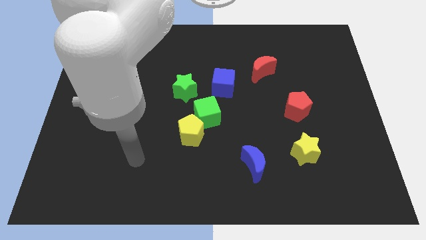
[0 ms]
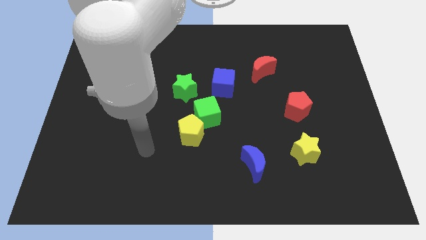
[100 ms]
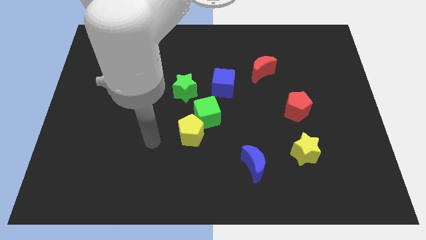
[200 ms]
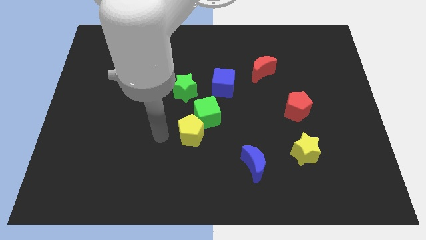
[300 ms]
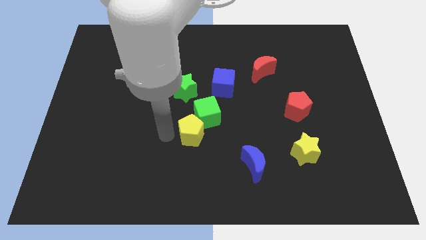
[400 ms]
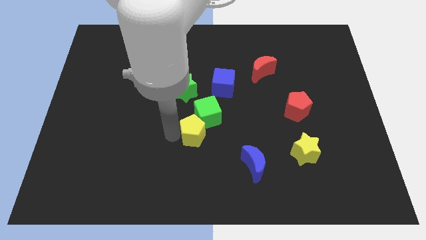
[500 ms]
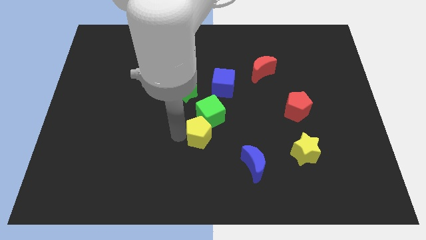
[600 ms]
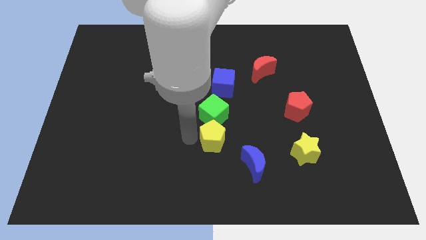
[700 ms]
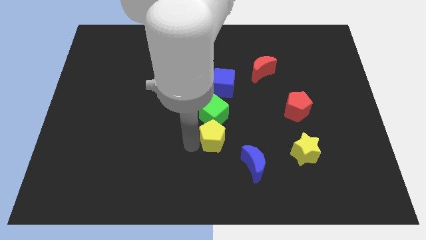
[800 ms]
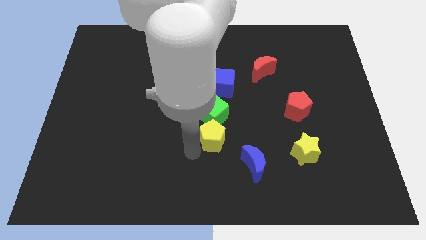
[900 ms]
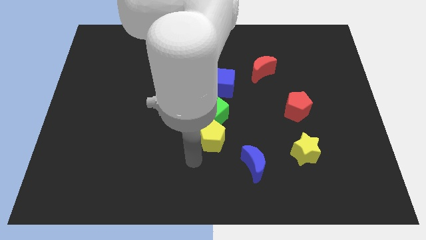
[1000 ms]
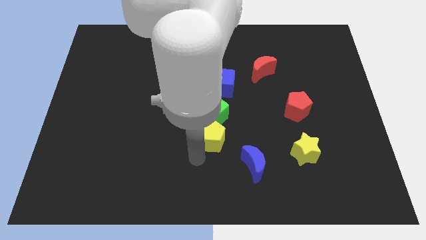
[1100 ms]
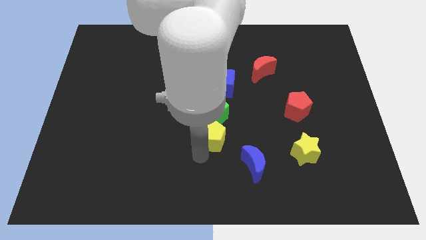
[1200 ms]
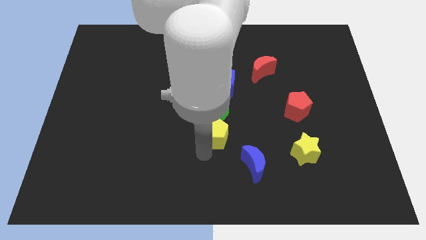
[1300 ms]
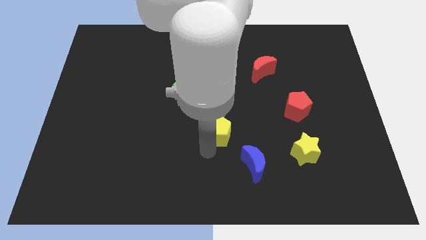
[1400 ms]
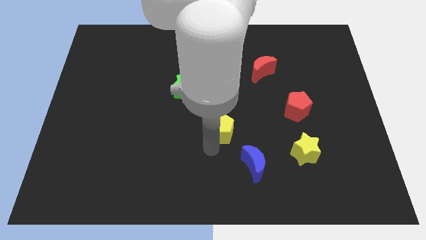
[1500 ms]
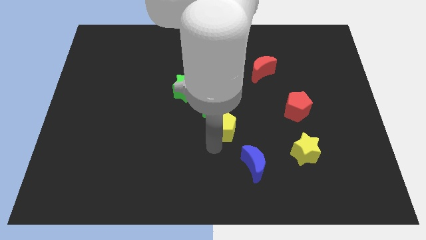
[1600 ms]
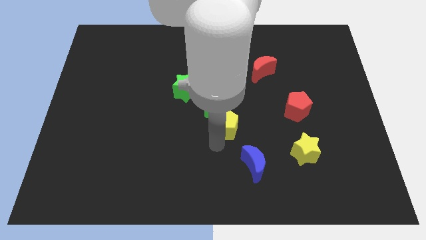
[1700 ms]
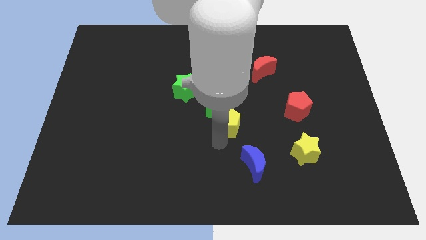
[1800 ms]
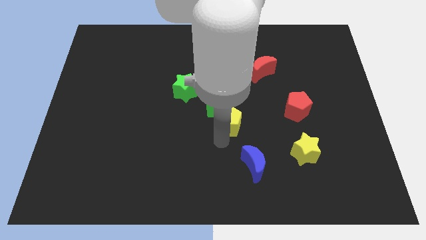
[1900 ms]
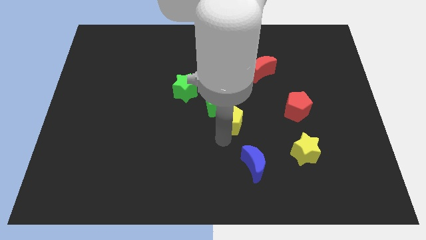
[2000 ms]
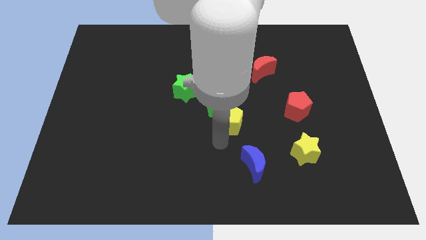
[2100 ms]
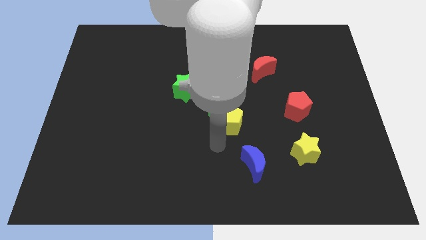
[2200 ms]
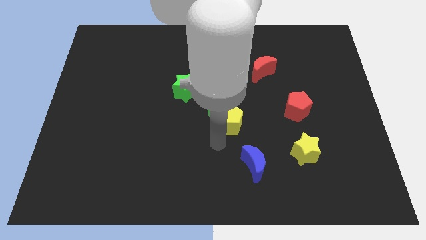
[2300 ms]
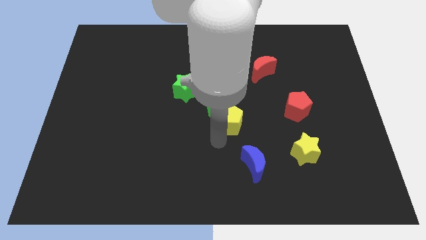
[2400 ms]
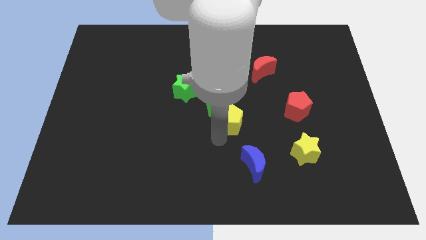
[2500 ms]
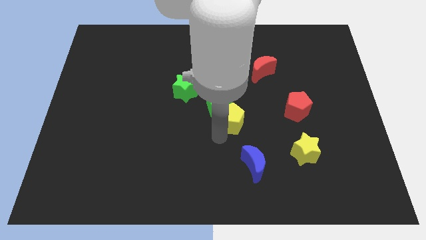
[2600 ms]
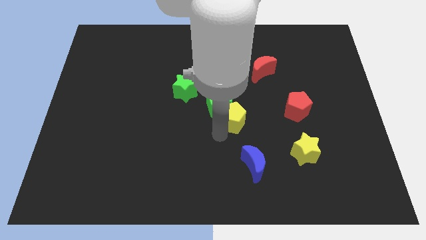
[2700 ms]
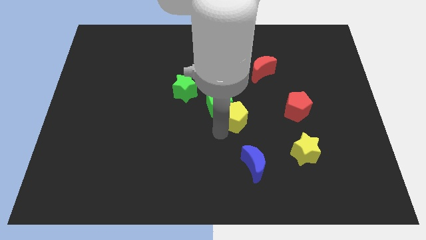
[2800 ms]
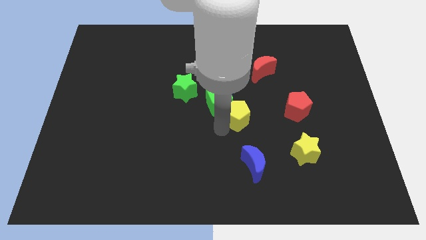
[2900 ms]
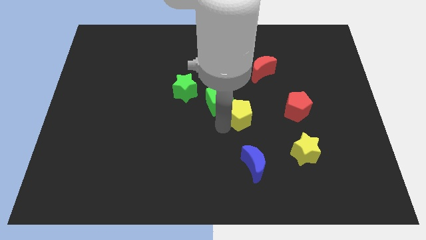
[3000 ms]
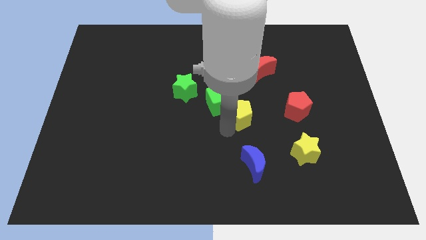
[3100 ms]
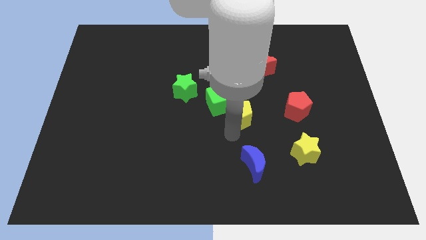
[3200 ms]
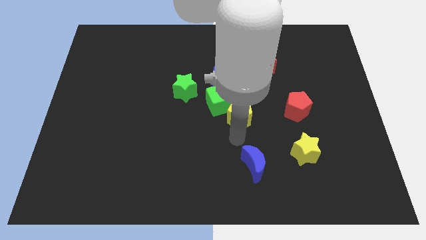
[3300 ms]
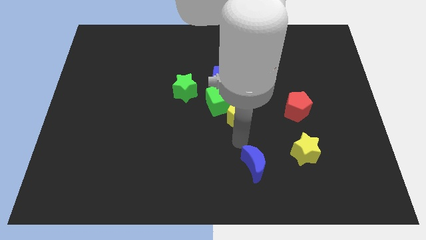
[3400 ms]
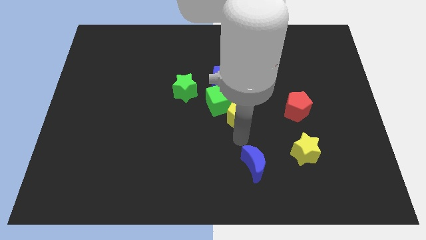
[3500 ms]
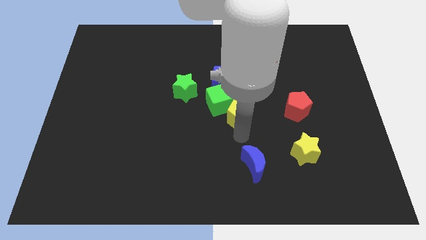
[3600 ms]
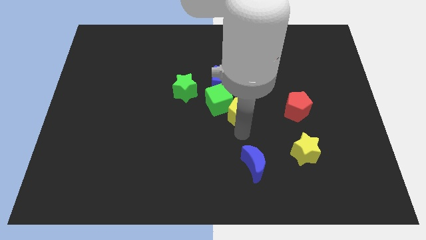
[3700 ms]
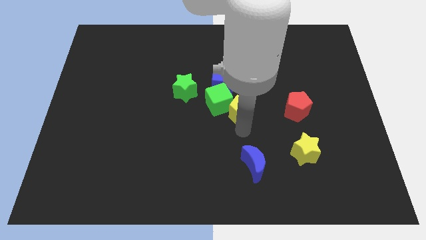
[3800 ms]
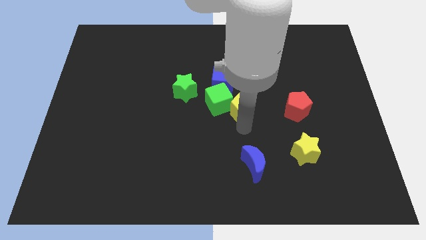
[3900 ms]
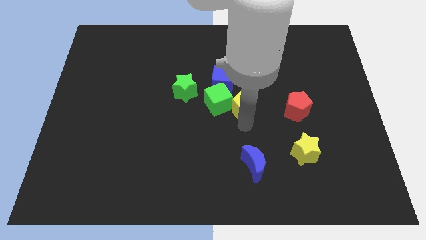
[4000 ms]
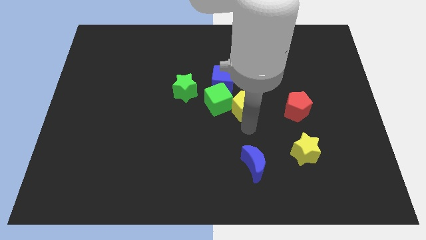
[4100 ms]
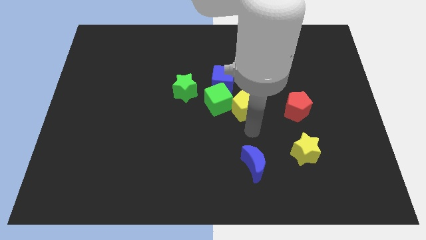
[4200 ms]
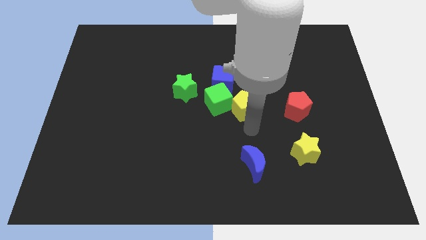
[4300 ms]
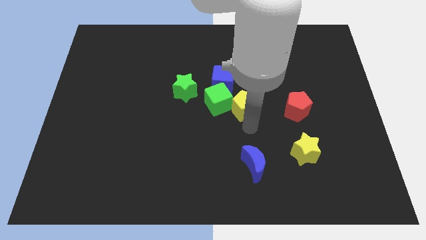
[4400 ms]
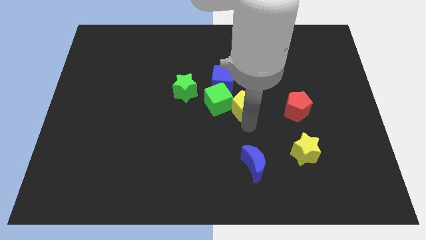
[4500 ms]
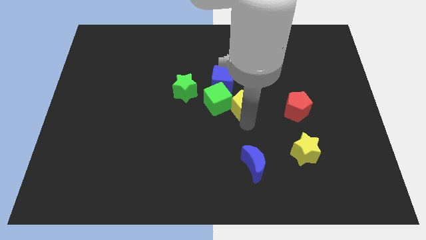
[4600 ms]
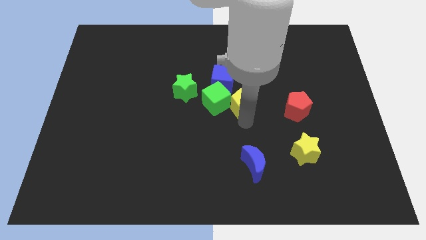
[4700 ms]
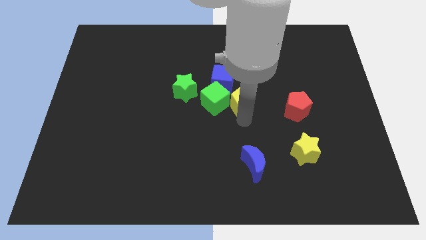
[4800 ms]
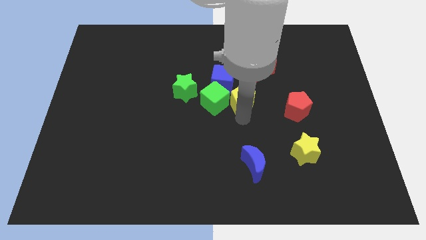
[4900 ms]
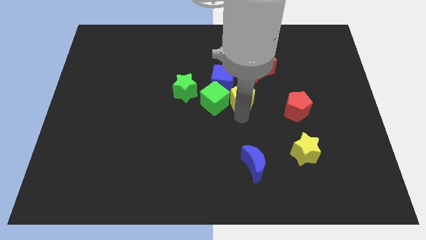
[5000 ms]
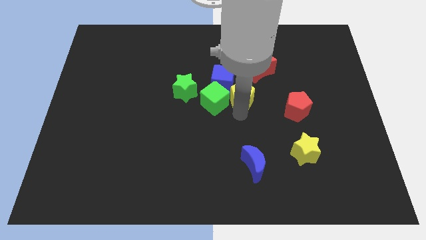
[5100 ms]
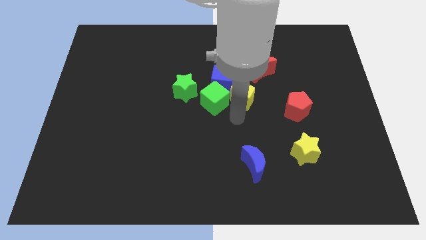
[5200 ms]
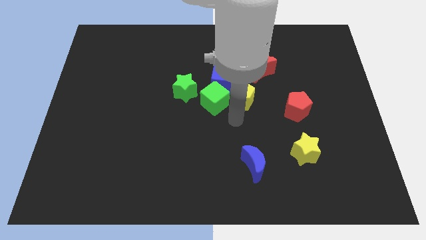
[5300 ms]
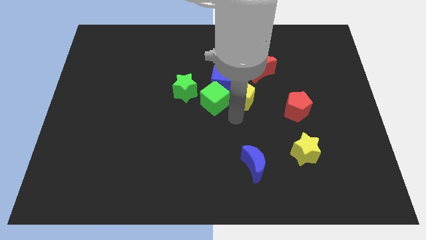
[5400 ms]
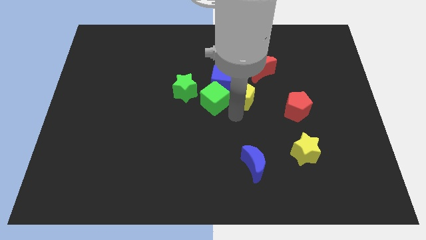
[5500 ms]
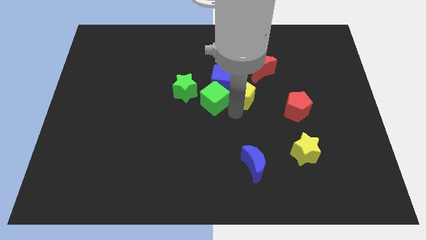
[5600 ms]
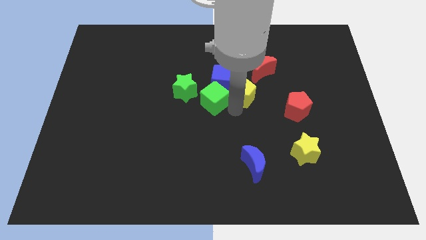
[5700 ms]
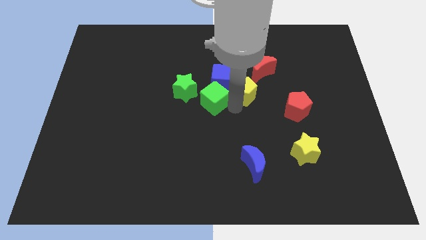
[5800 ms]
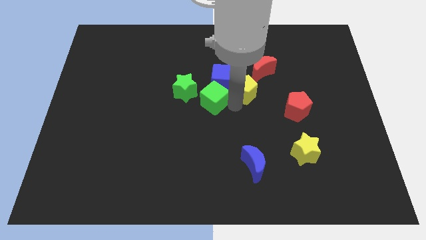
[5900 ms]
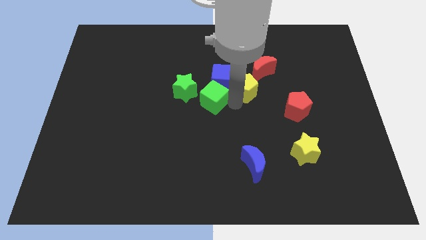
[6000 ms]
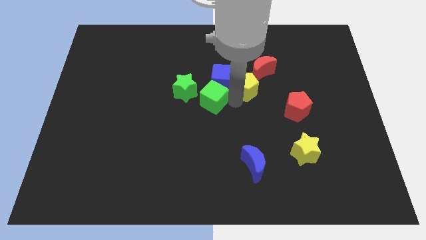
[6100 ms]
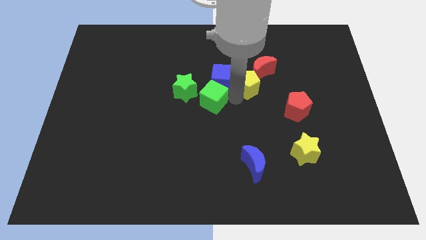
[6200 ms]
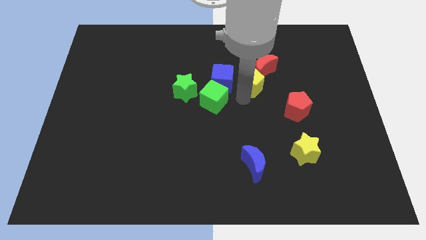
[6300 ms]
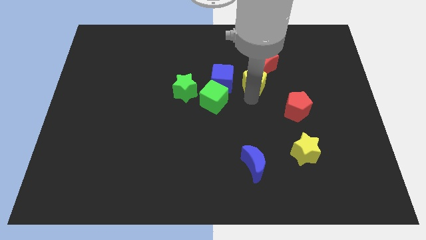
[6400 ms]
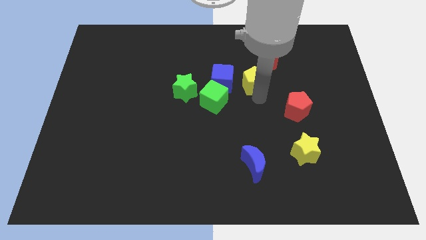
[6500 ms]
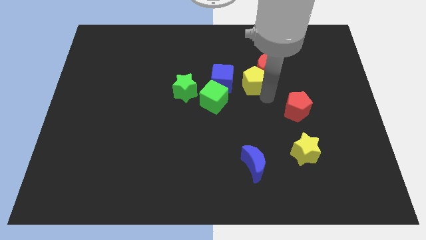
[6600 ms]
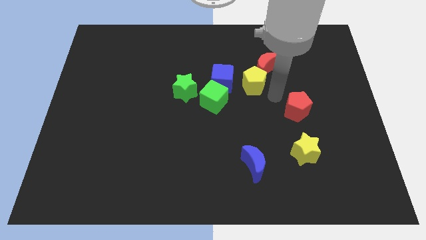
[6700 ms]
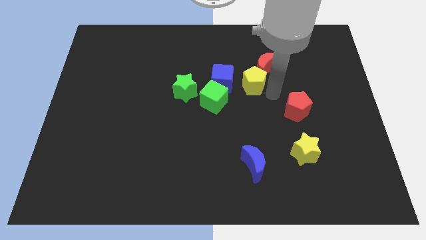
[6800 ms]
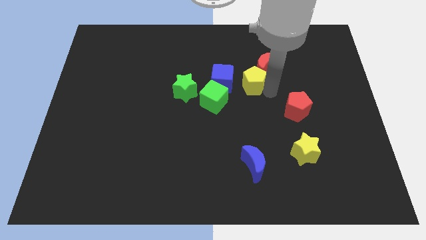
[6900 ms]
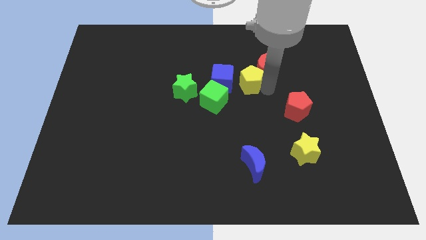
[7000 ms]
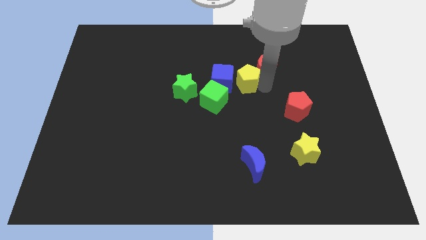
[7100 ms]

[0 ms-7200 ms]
push the yellow pentagon left of the red moon
